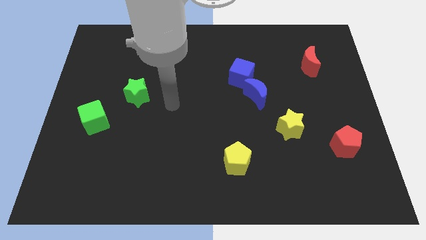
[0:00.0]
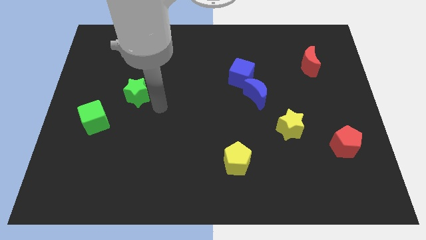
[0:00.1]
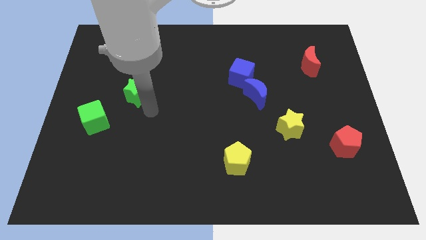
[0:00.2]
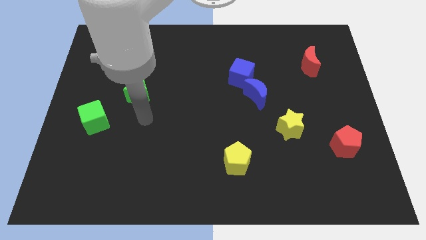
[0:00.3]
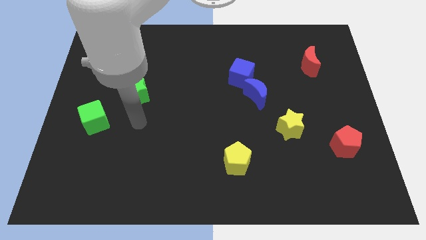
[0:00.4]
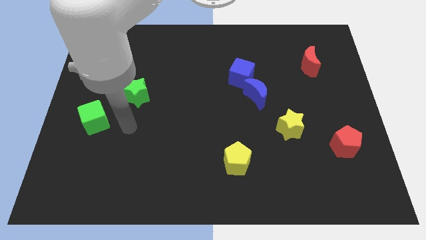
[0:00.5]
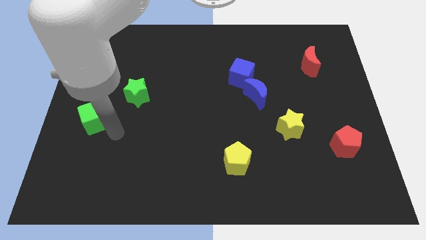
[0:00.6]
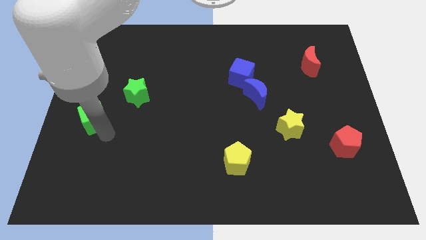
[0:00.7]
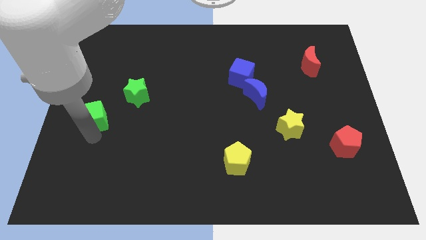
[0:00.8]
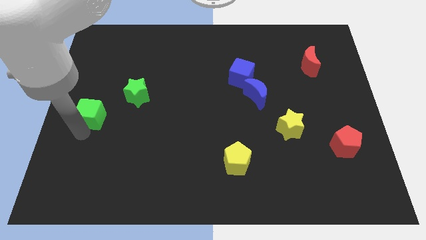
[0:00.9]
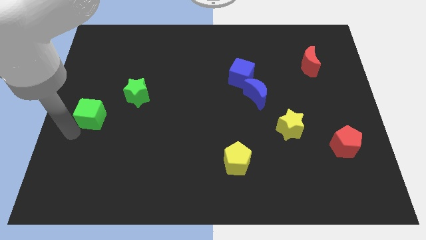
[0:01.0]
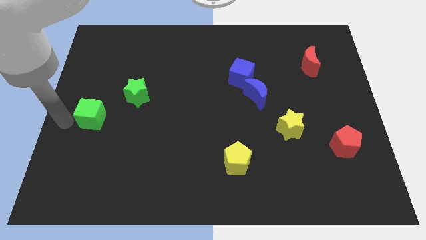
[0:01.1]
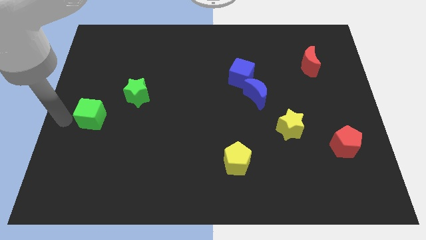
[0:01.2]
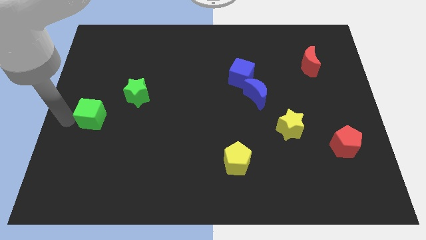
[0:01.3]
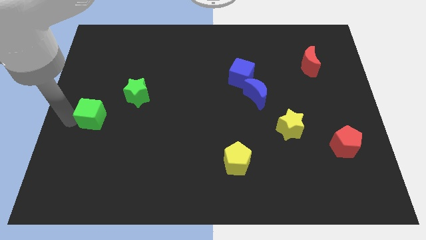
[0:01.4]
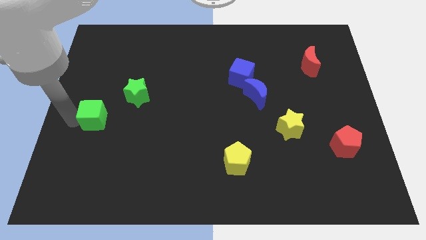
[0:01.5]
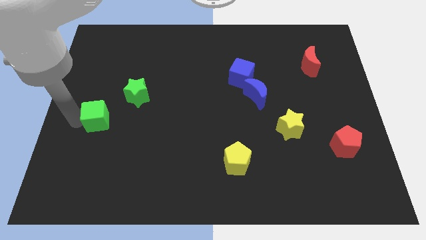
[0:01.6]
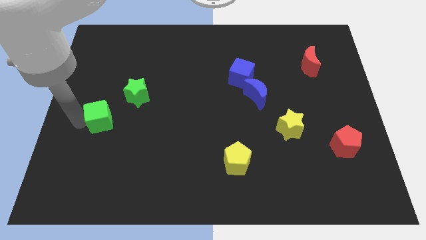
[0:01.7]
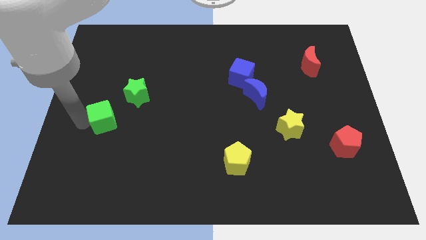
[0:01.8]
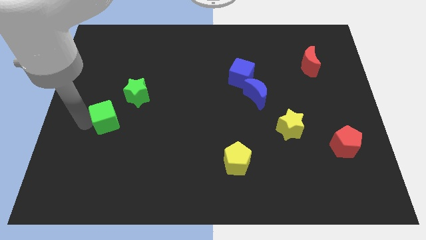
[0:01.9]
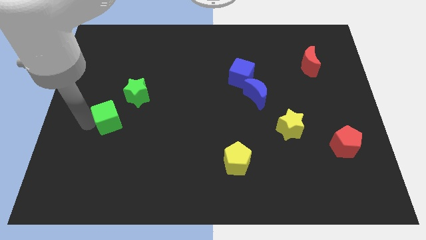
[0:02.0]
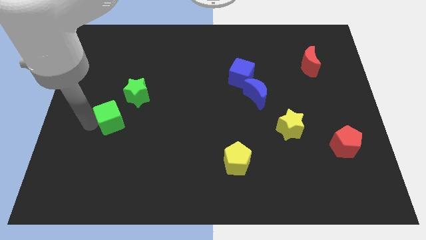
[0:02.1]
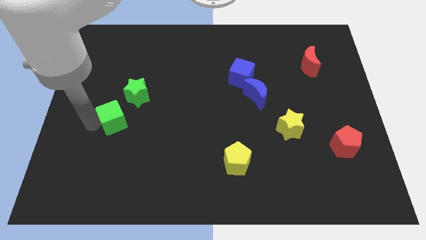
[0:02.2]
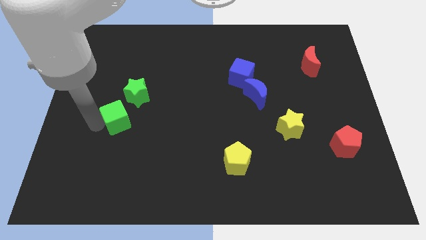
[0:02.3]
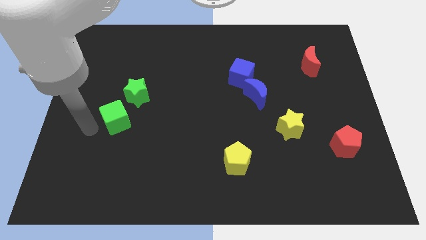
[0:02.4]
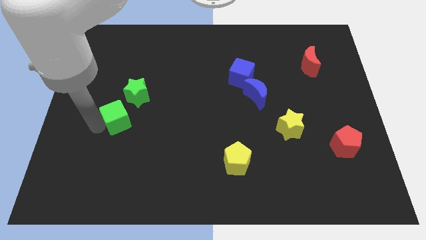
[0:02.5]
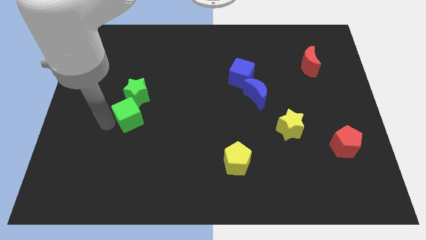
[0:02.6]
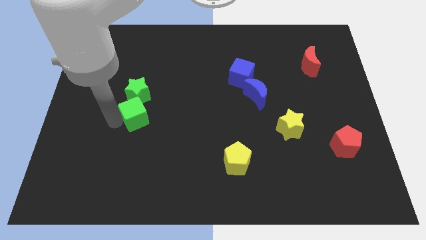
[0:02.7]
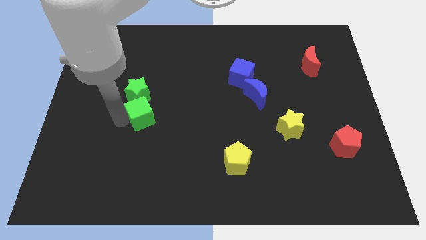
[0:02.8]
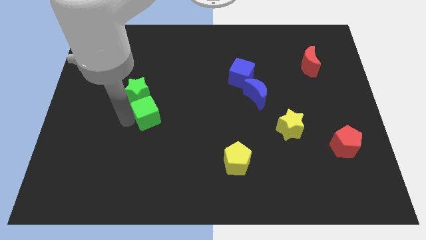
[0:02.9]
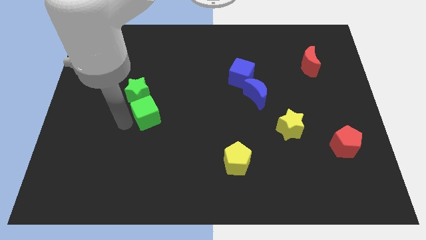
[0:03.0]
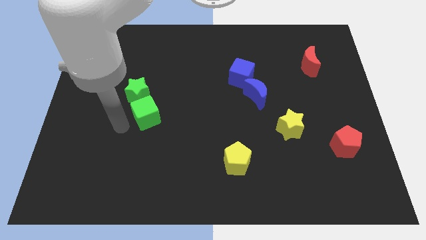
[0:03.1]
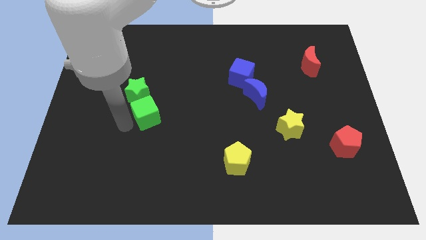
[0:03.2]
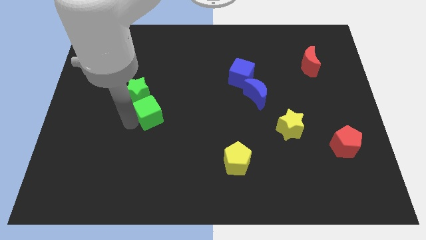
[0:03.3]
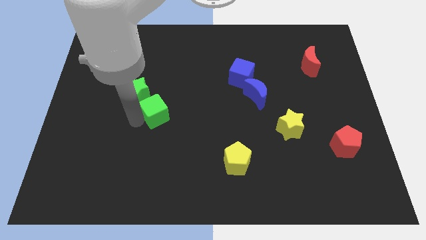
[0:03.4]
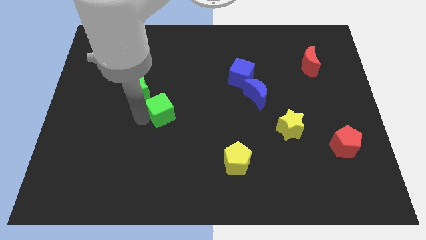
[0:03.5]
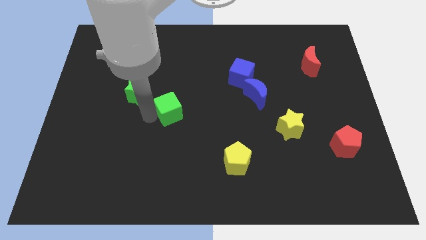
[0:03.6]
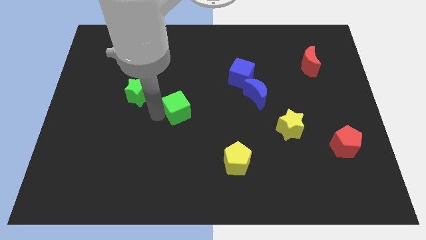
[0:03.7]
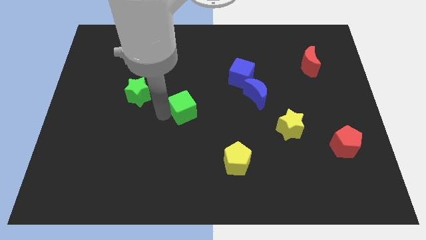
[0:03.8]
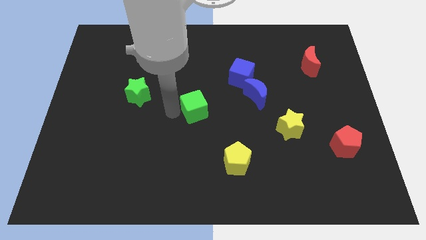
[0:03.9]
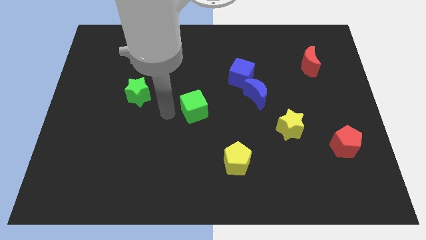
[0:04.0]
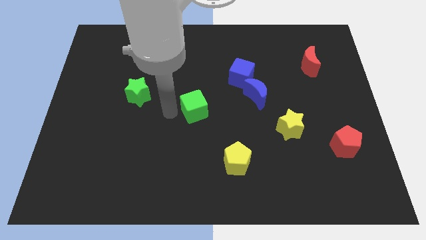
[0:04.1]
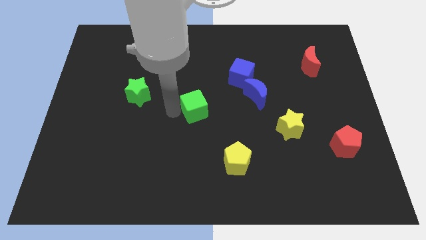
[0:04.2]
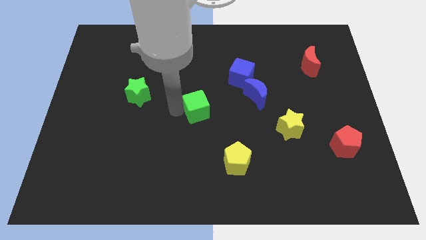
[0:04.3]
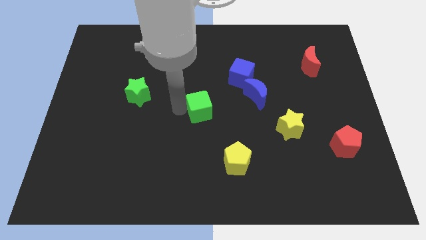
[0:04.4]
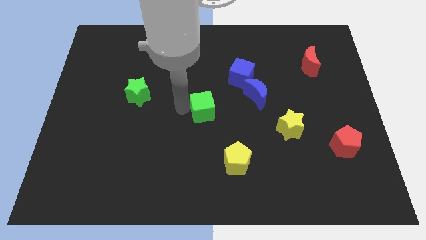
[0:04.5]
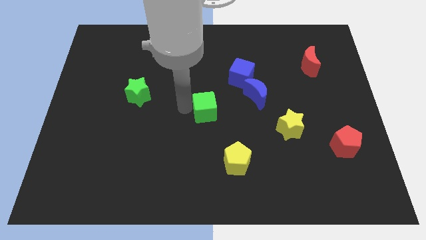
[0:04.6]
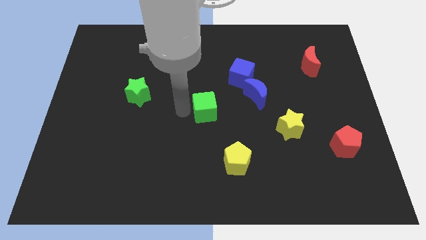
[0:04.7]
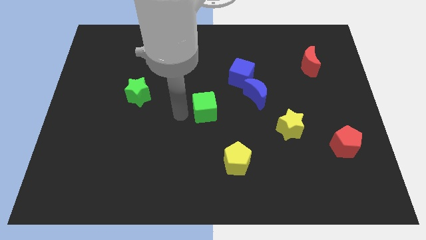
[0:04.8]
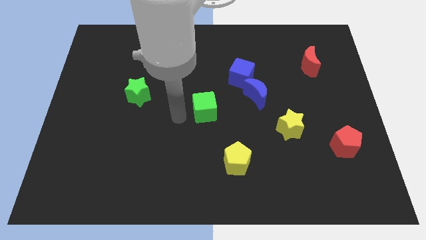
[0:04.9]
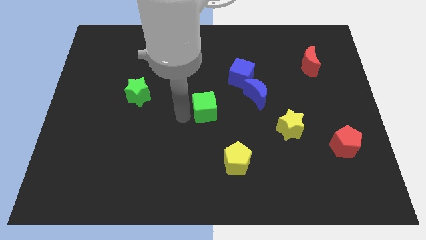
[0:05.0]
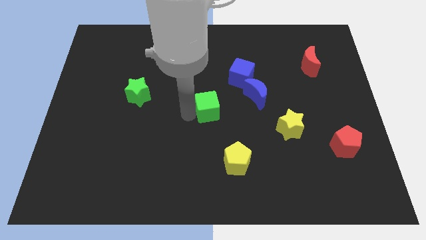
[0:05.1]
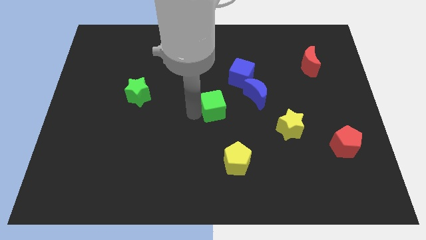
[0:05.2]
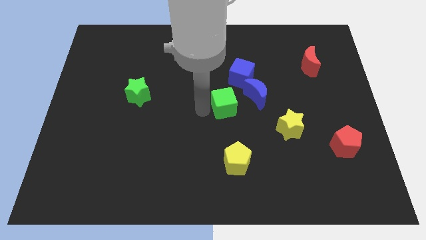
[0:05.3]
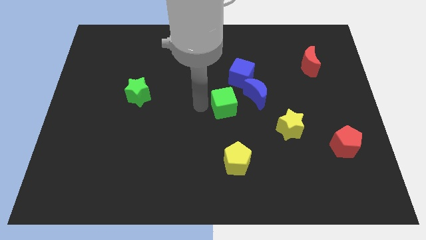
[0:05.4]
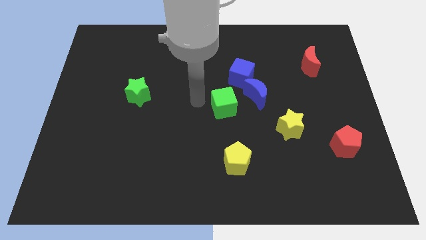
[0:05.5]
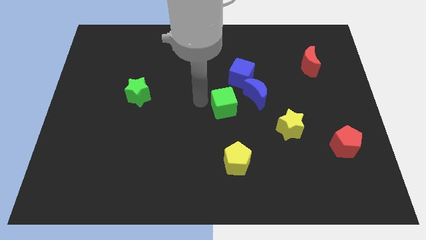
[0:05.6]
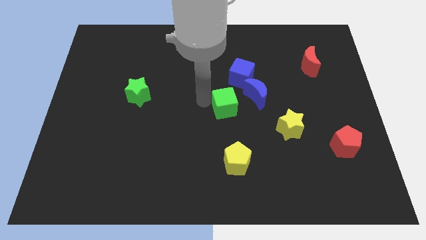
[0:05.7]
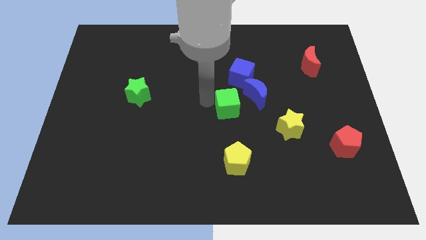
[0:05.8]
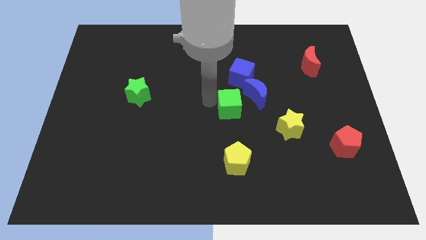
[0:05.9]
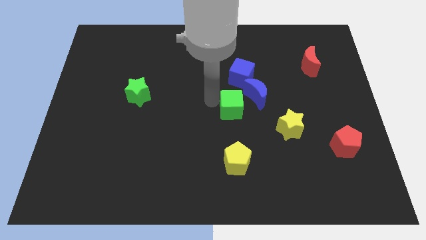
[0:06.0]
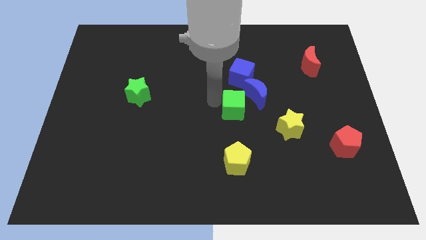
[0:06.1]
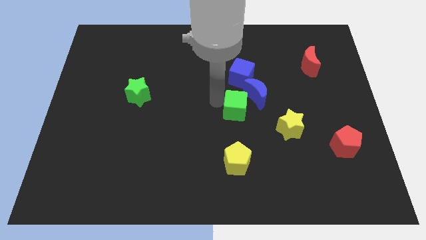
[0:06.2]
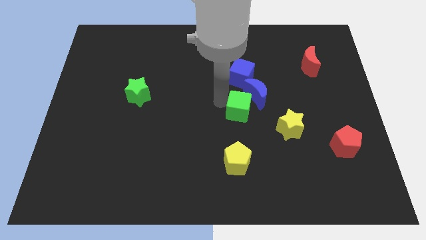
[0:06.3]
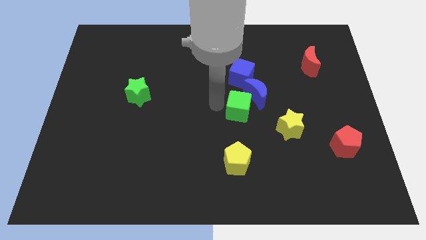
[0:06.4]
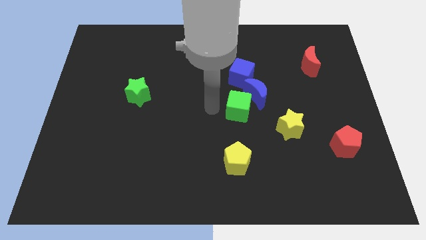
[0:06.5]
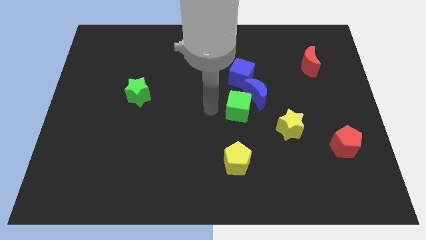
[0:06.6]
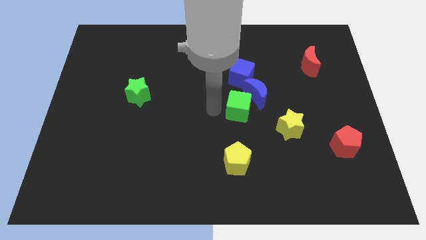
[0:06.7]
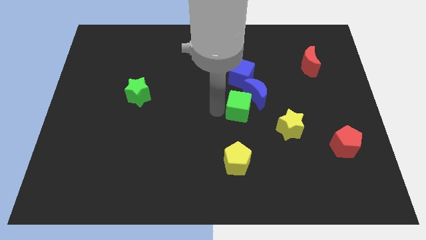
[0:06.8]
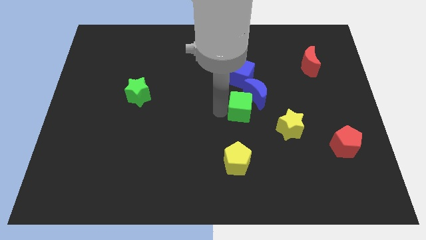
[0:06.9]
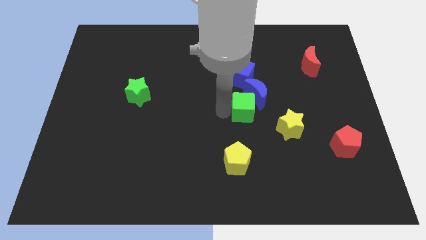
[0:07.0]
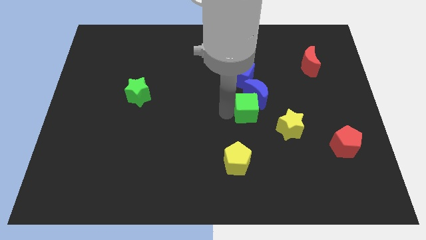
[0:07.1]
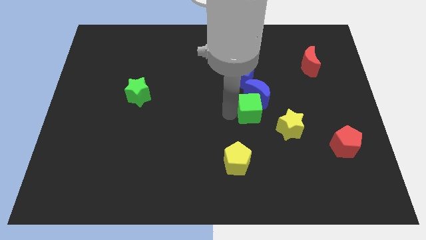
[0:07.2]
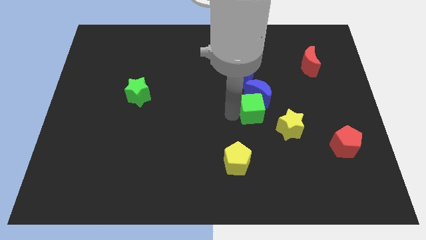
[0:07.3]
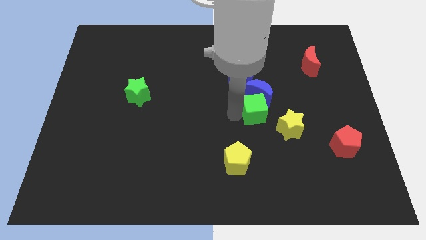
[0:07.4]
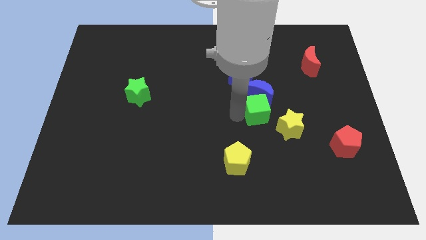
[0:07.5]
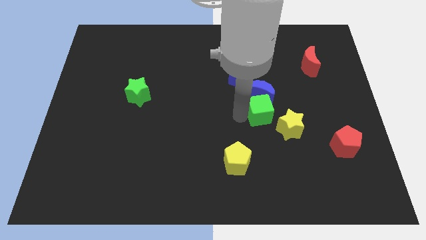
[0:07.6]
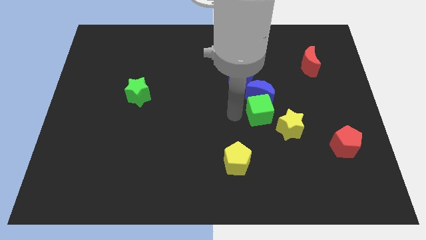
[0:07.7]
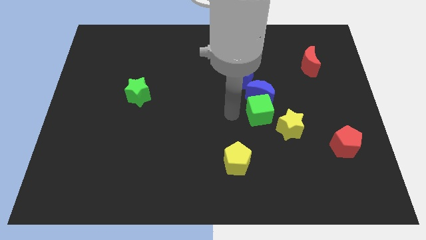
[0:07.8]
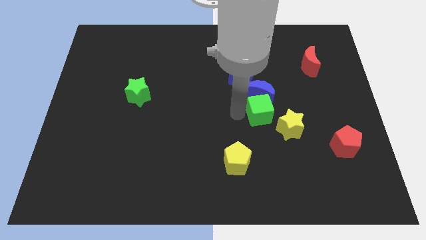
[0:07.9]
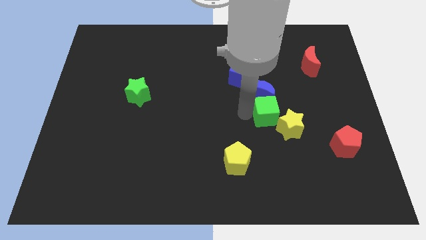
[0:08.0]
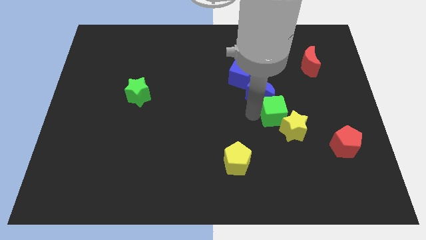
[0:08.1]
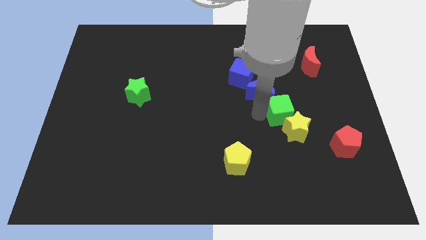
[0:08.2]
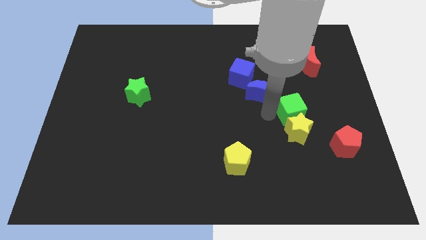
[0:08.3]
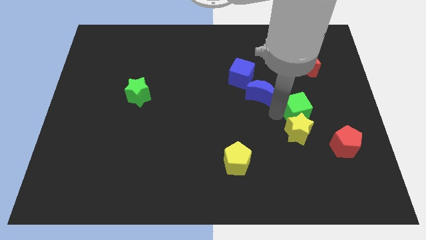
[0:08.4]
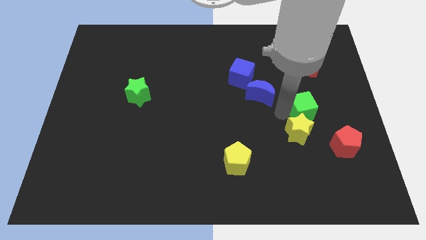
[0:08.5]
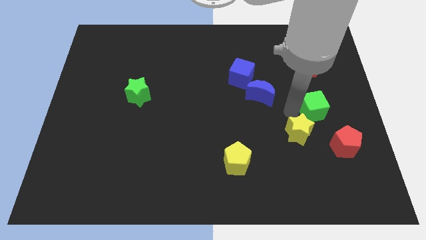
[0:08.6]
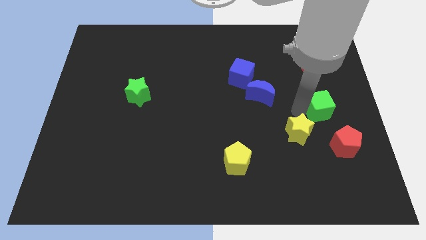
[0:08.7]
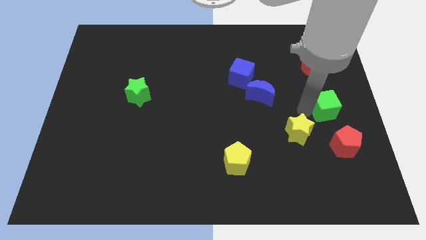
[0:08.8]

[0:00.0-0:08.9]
slide the green cube to the right side of the board
